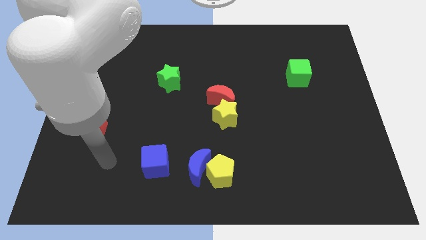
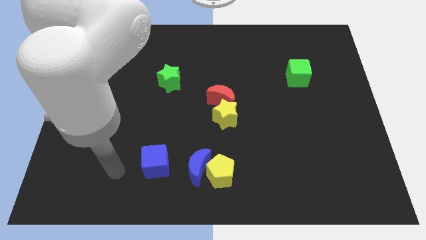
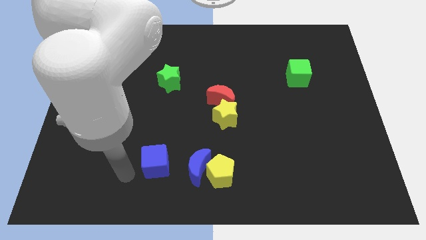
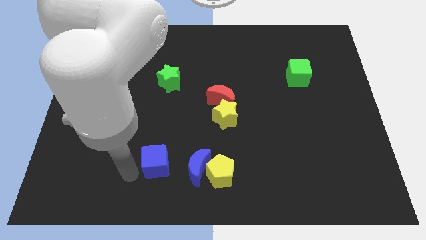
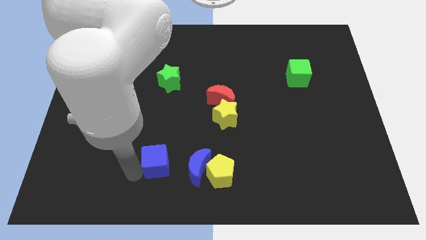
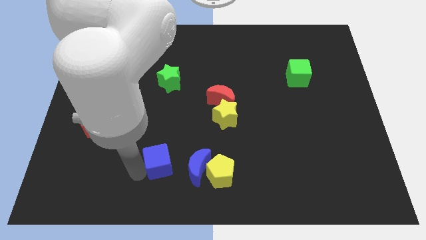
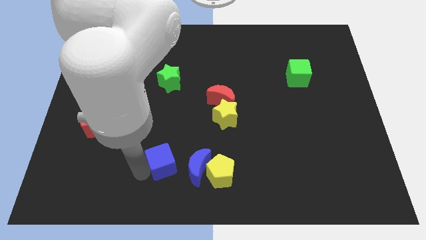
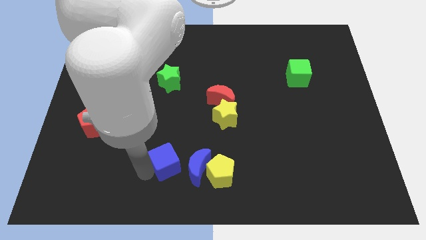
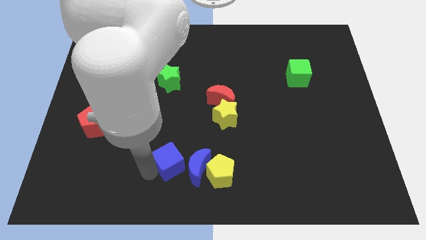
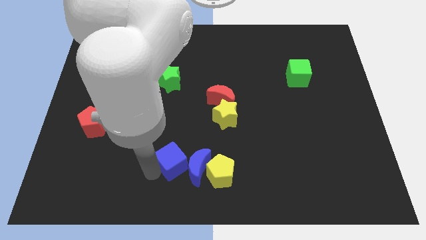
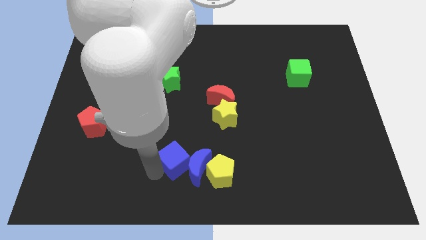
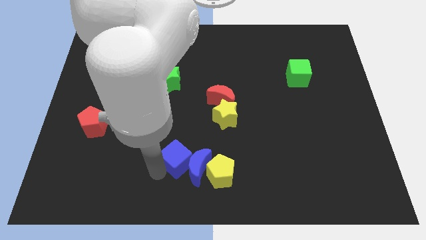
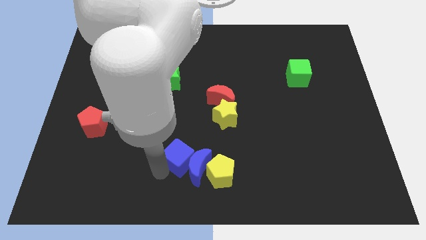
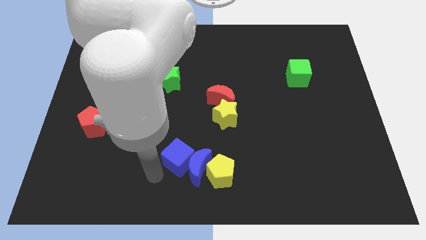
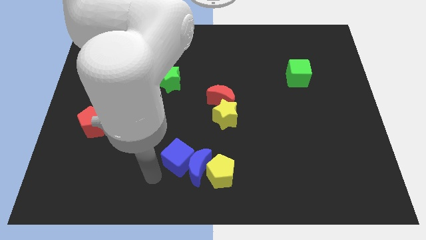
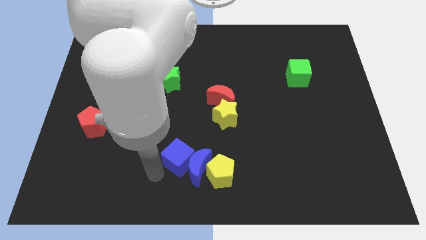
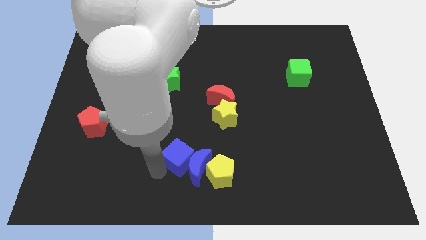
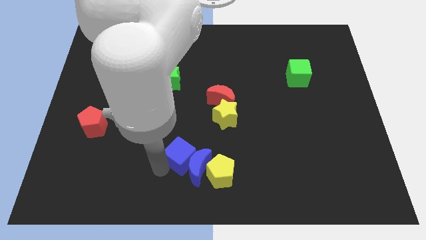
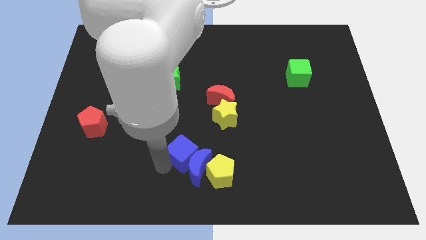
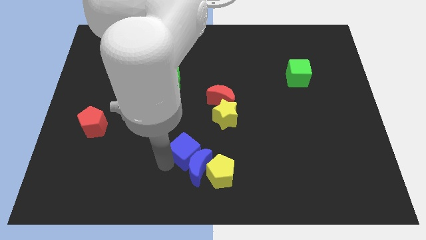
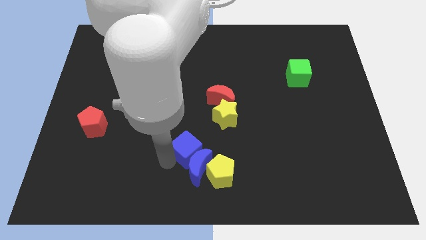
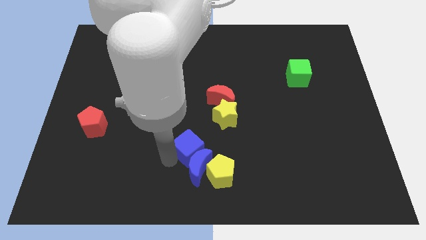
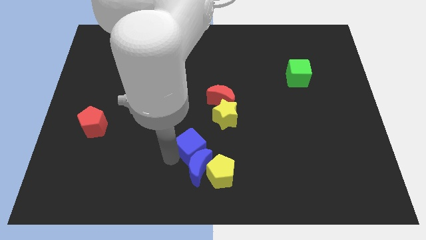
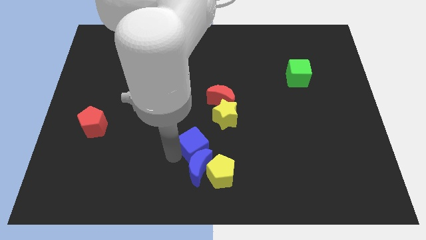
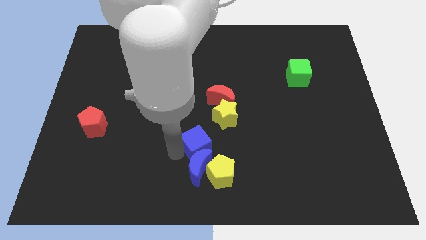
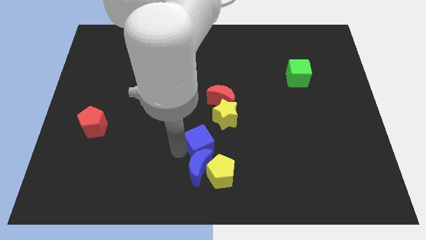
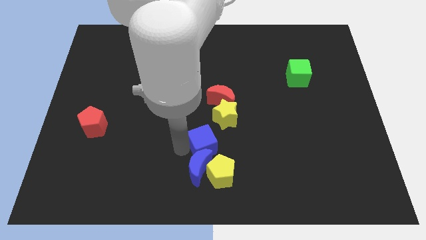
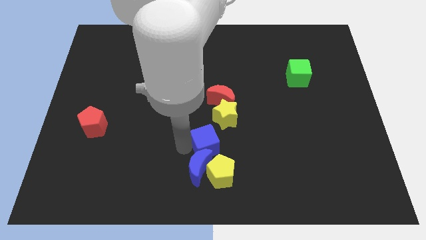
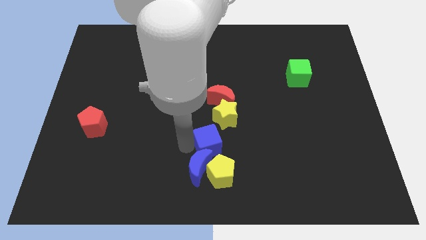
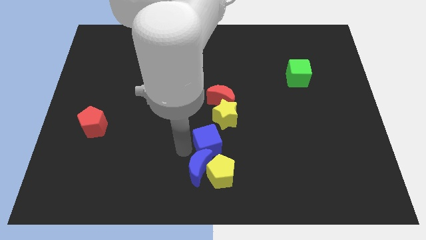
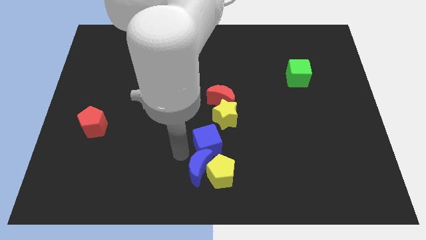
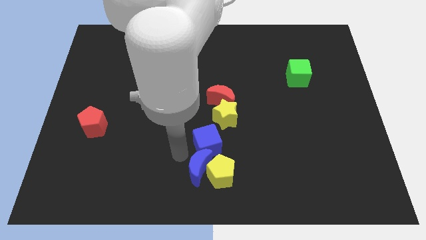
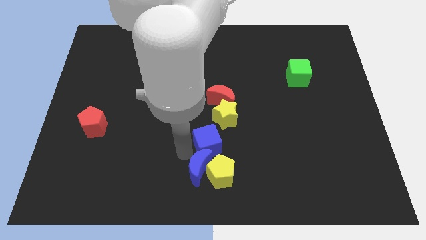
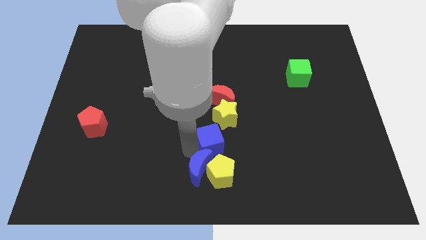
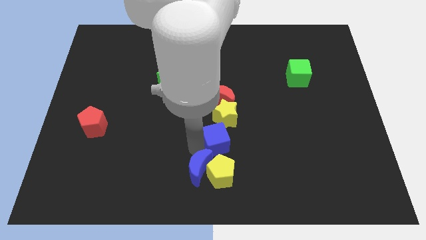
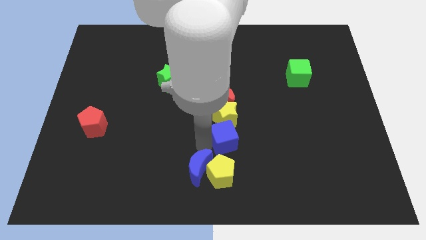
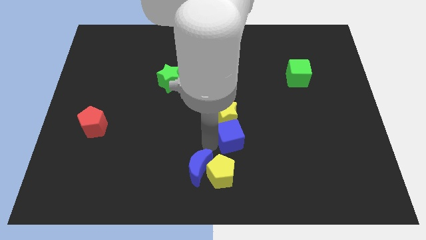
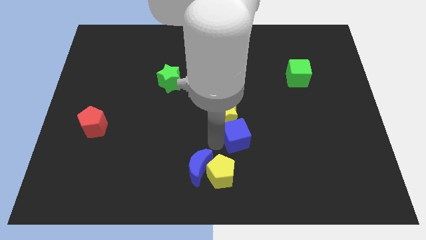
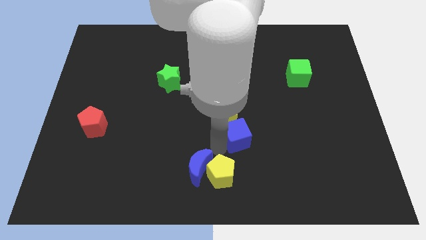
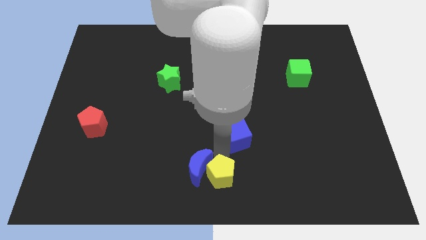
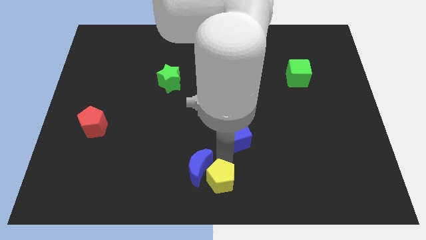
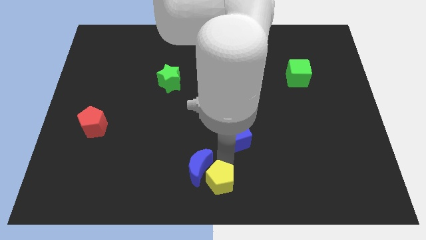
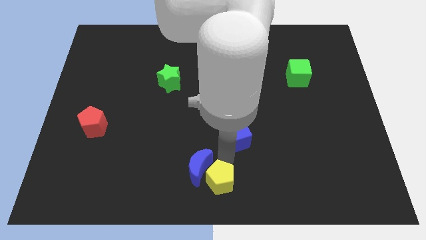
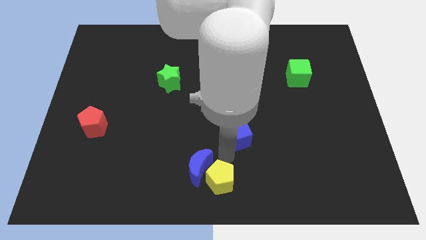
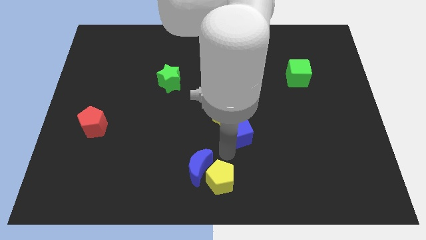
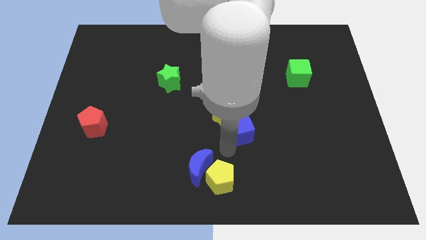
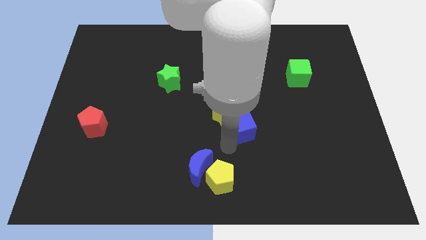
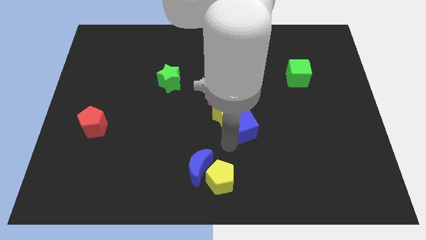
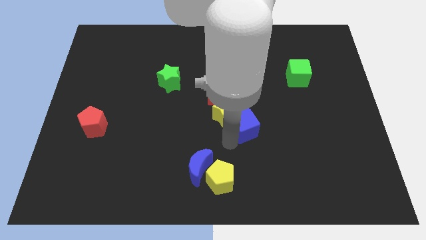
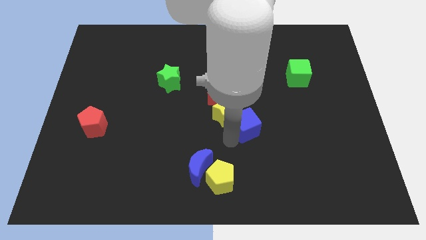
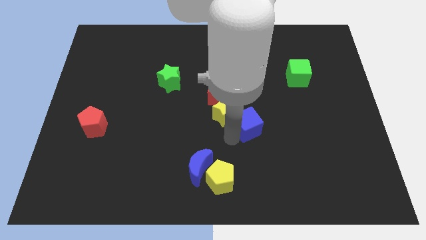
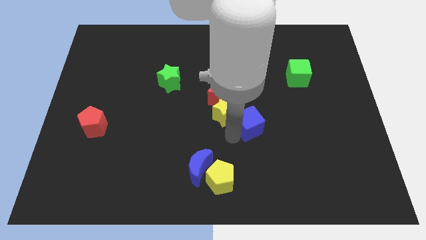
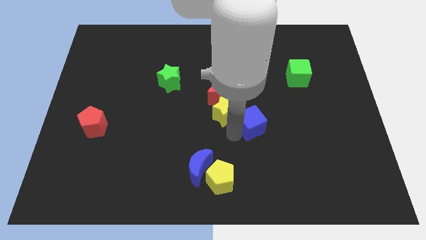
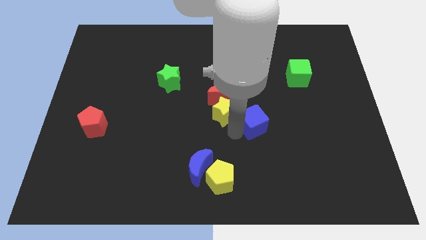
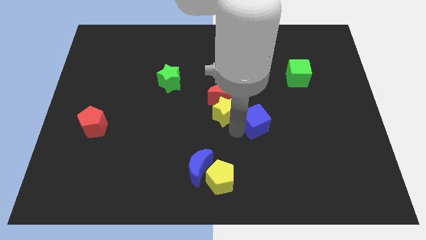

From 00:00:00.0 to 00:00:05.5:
move the blue cube diagonally up and right

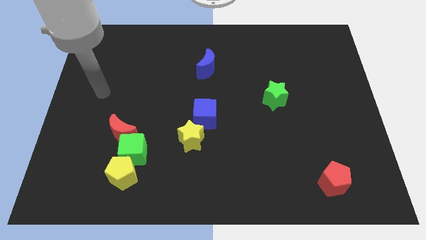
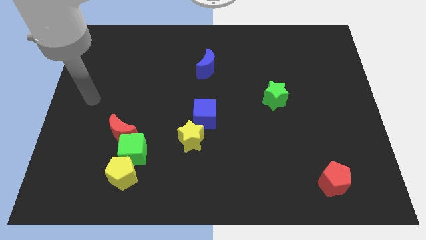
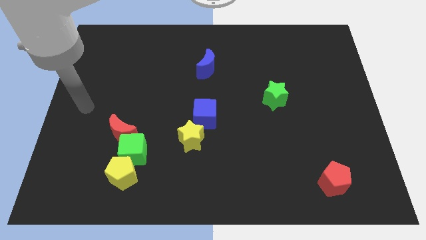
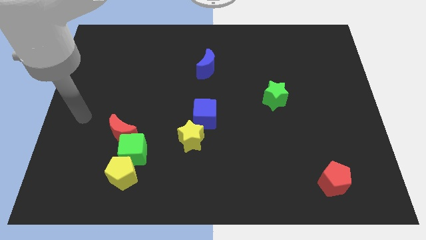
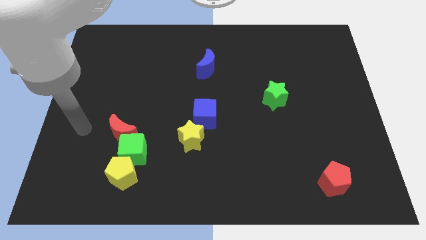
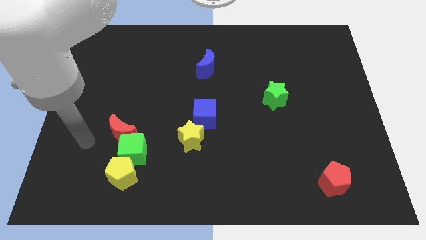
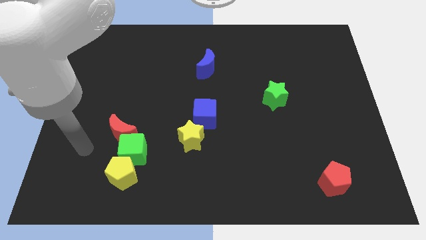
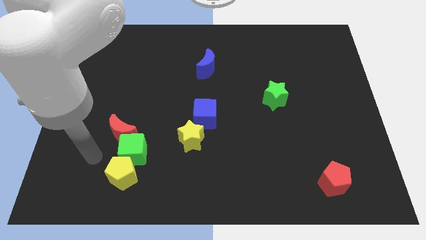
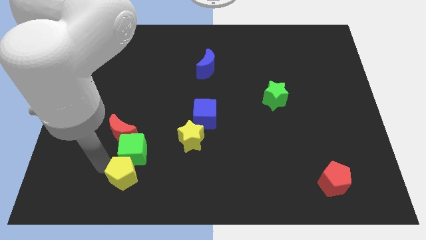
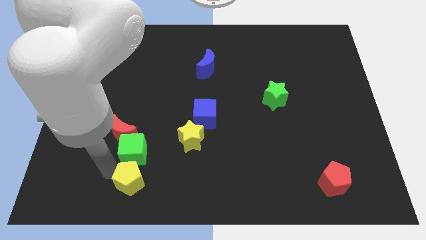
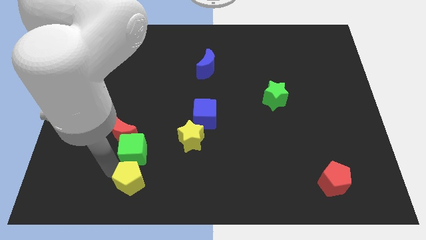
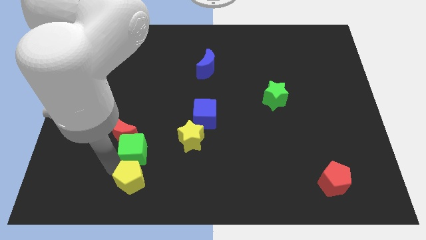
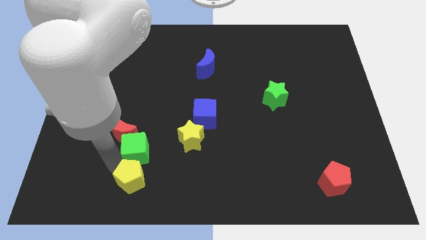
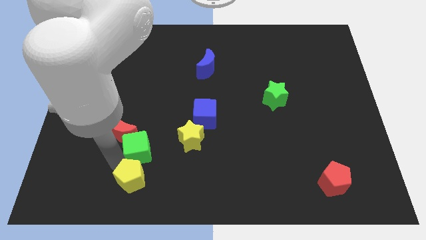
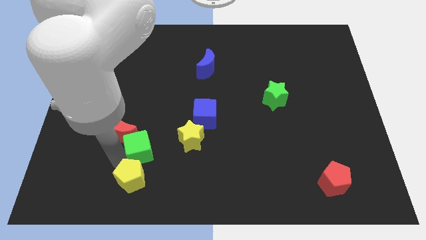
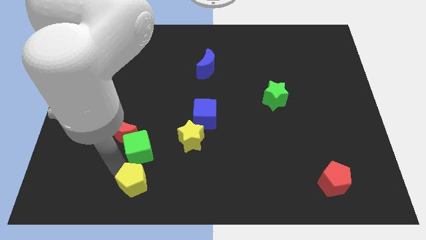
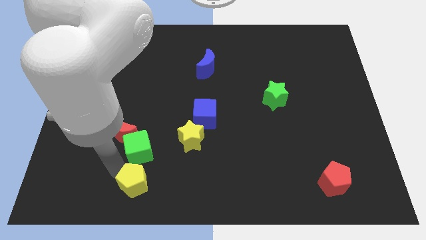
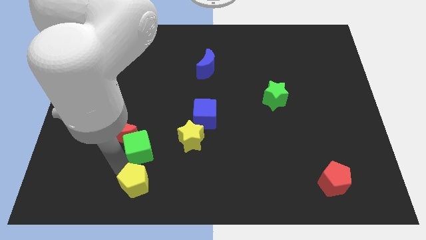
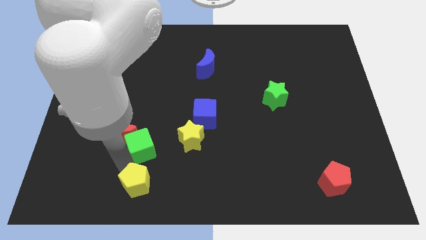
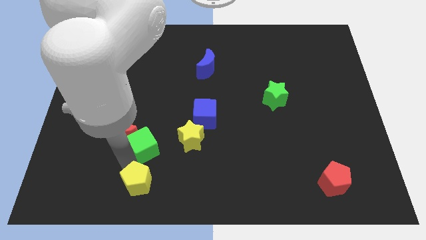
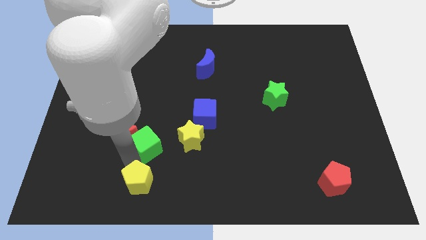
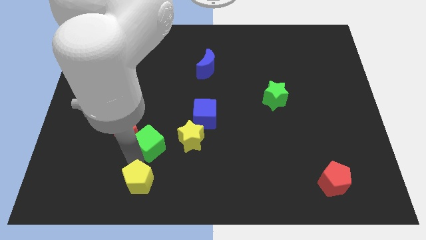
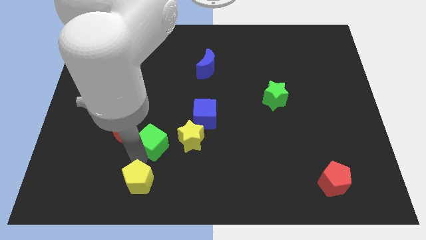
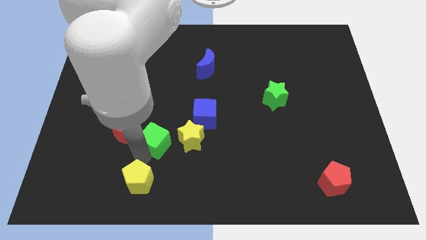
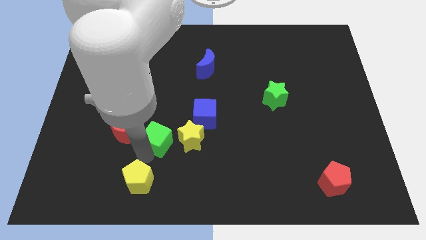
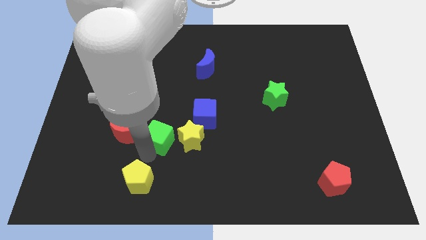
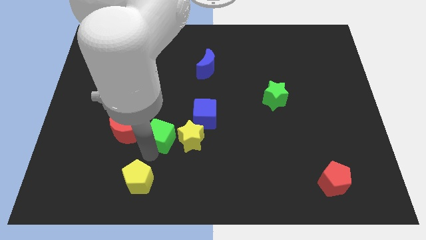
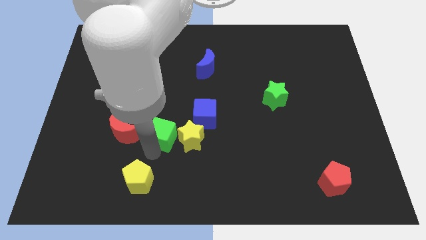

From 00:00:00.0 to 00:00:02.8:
push the green cube diagonally upwards and to the right somewhat
